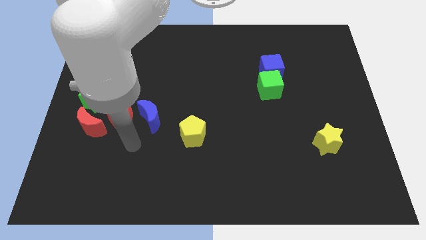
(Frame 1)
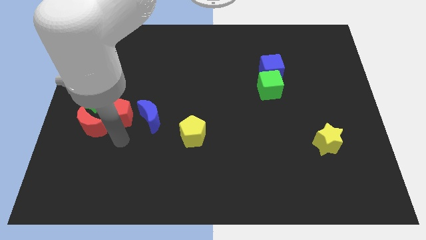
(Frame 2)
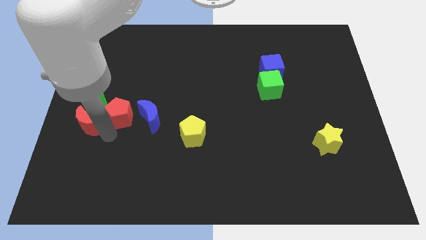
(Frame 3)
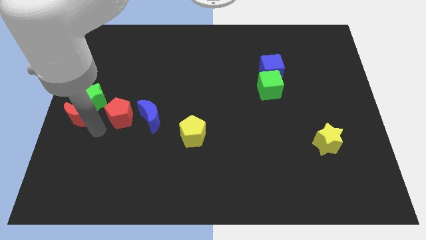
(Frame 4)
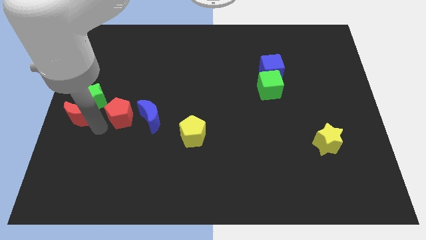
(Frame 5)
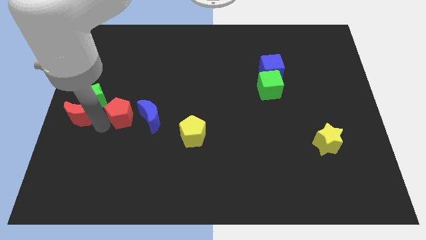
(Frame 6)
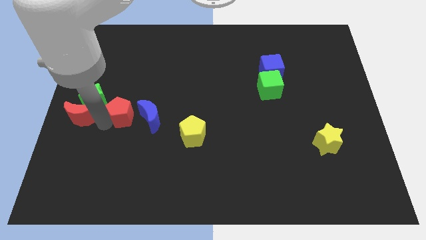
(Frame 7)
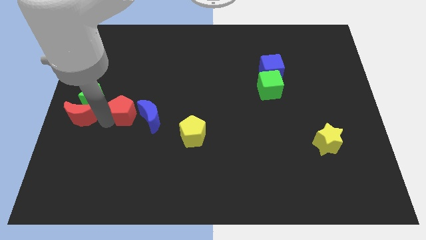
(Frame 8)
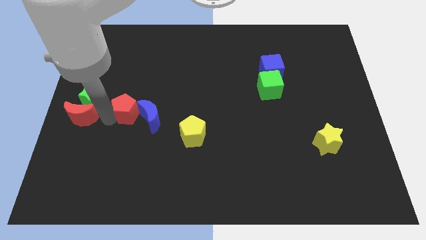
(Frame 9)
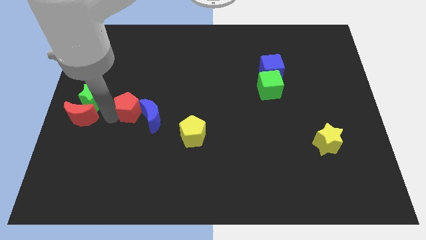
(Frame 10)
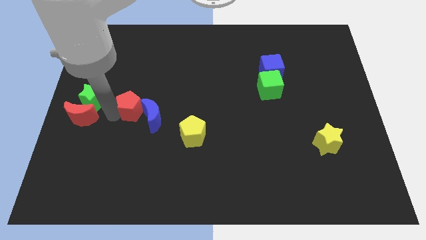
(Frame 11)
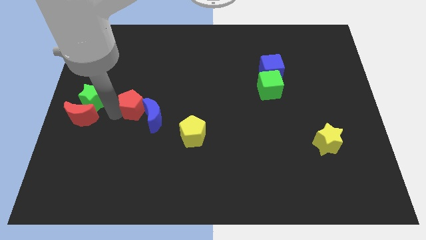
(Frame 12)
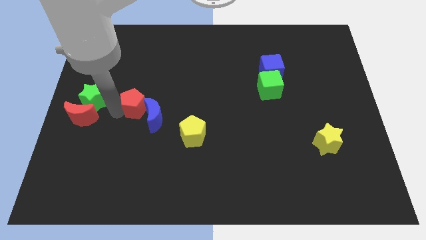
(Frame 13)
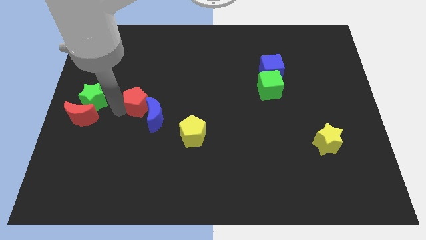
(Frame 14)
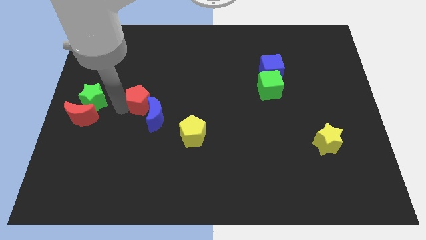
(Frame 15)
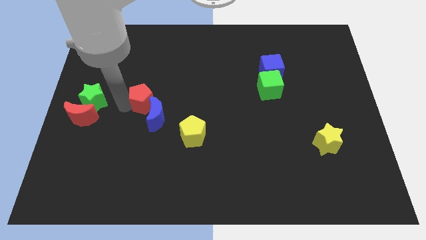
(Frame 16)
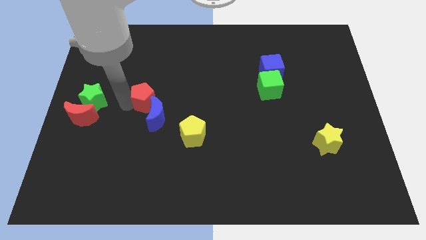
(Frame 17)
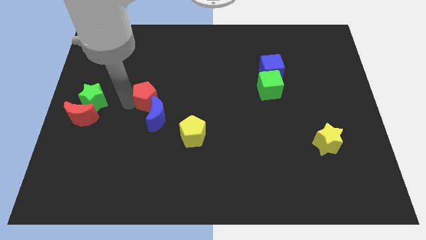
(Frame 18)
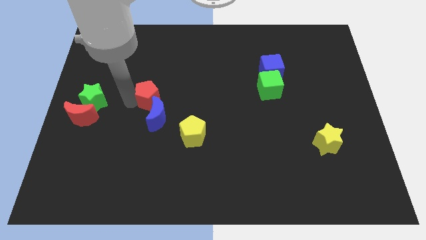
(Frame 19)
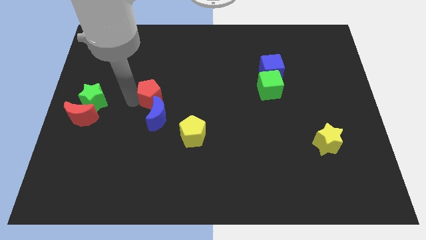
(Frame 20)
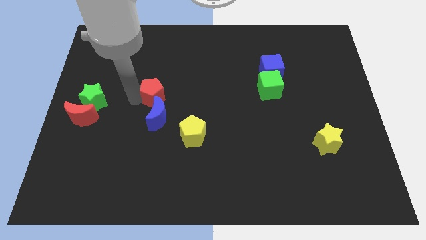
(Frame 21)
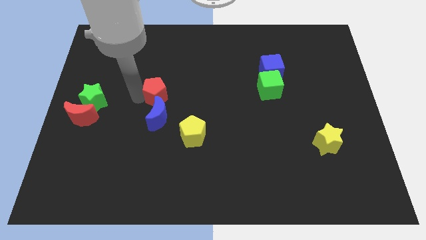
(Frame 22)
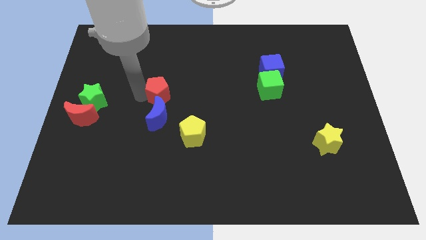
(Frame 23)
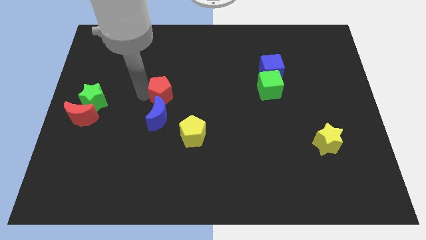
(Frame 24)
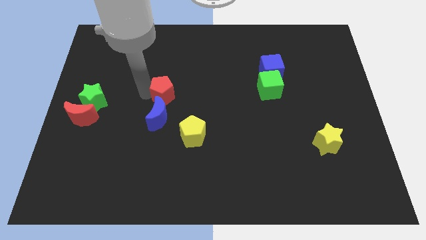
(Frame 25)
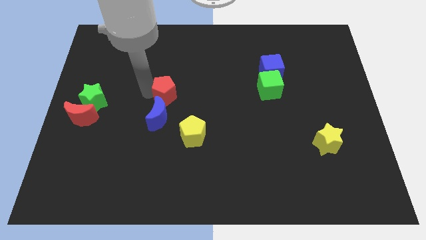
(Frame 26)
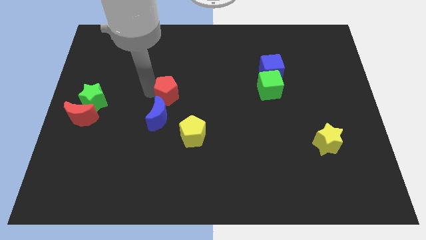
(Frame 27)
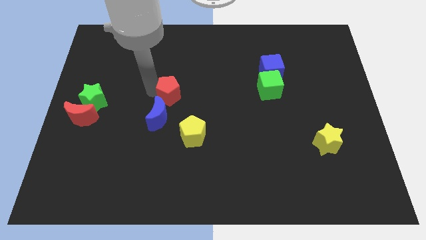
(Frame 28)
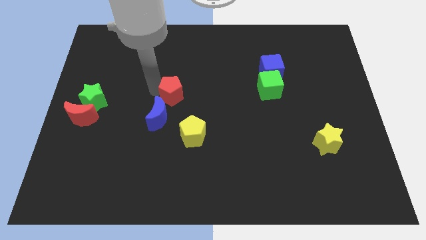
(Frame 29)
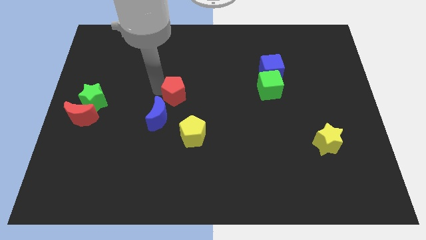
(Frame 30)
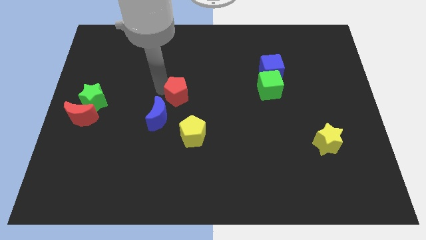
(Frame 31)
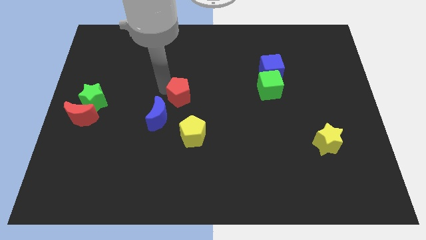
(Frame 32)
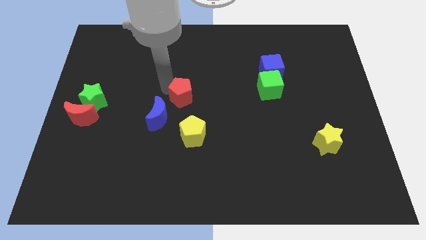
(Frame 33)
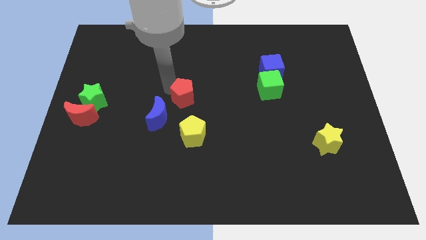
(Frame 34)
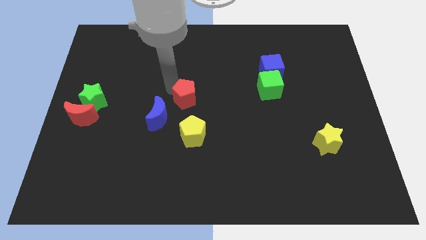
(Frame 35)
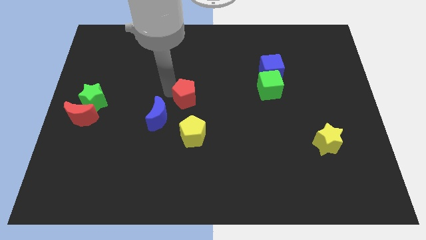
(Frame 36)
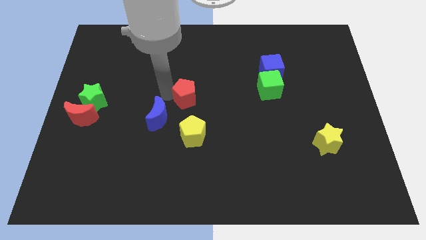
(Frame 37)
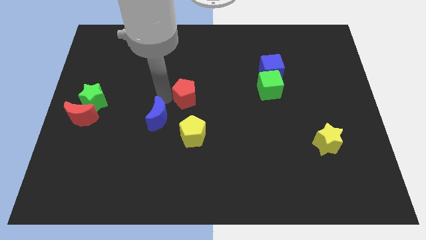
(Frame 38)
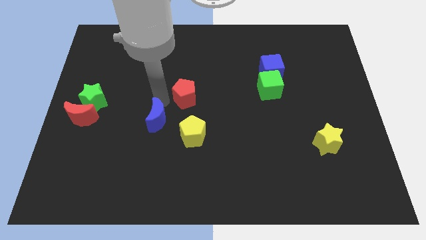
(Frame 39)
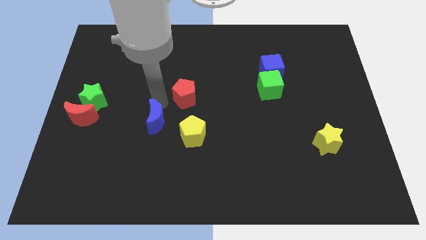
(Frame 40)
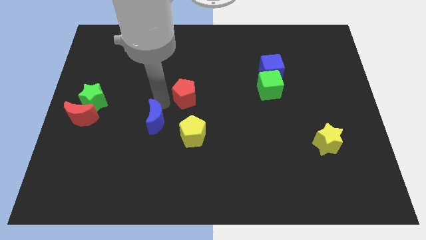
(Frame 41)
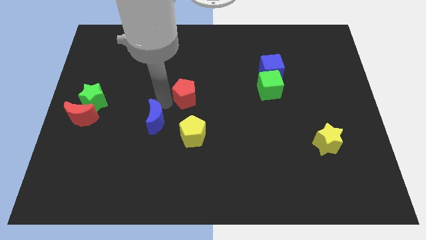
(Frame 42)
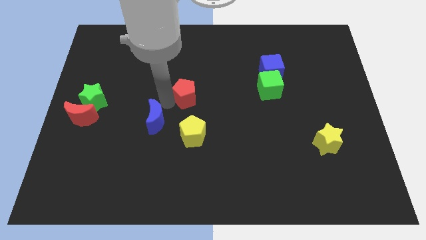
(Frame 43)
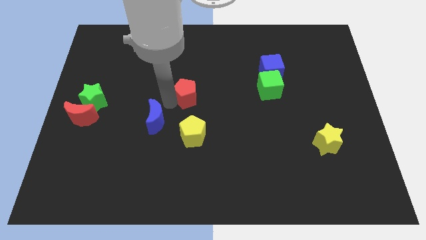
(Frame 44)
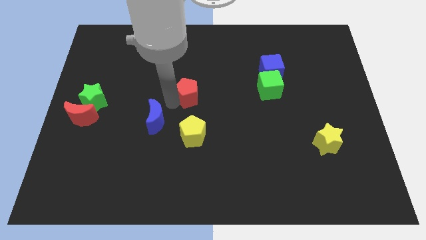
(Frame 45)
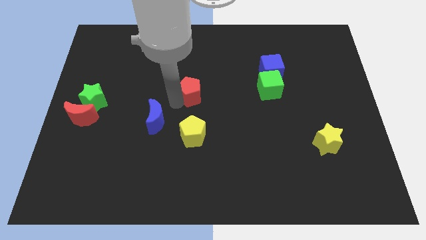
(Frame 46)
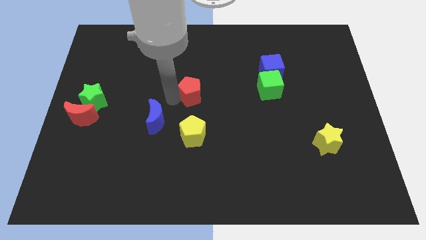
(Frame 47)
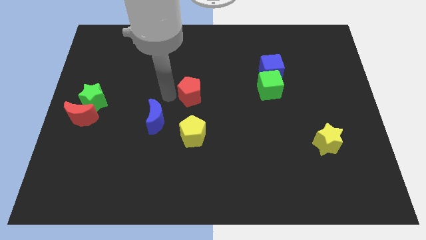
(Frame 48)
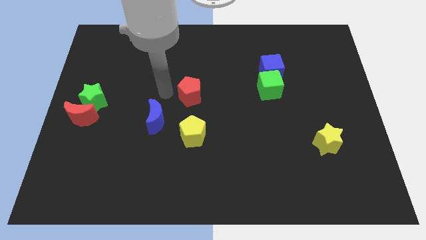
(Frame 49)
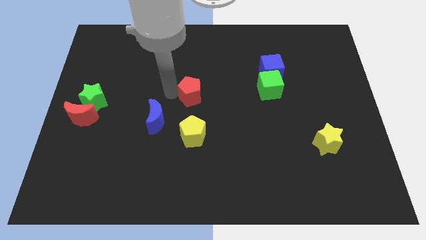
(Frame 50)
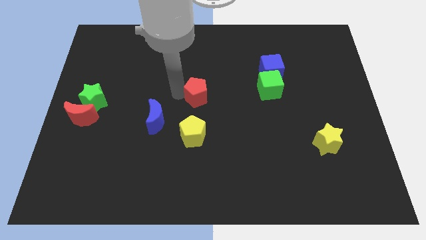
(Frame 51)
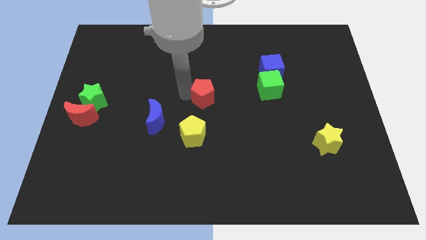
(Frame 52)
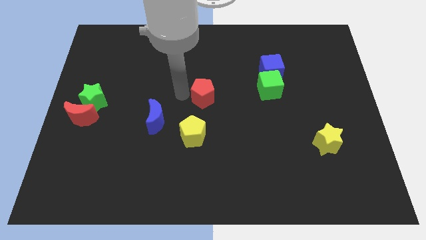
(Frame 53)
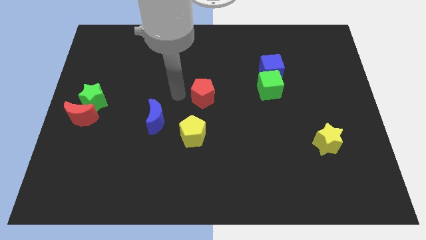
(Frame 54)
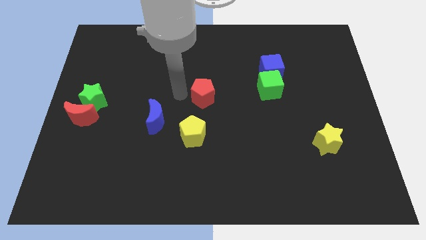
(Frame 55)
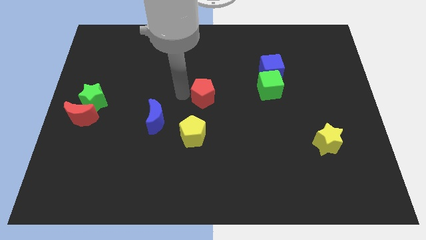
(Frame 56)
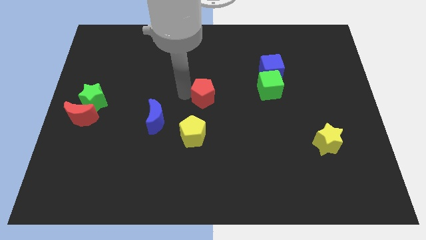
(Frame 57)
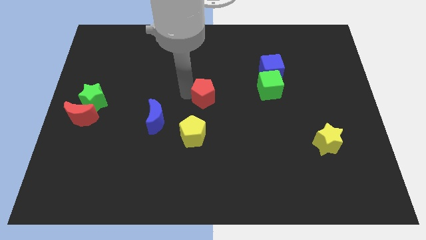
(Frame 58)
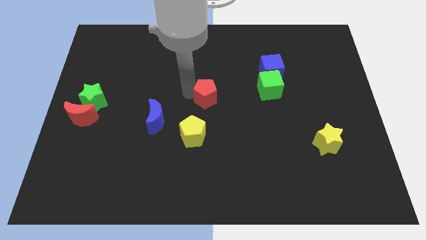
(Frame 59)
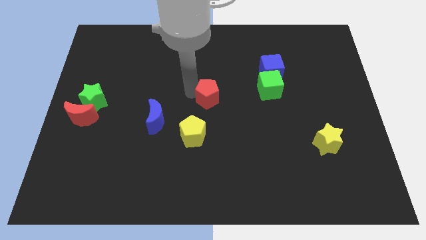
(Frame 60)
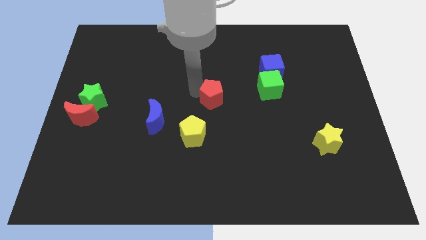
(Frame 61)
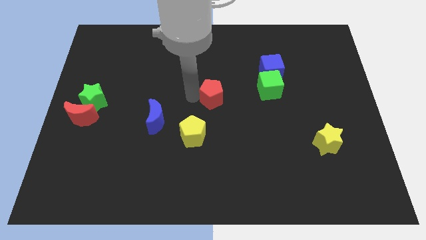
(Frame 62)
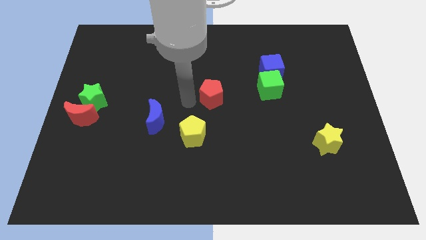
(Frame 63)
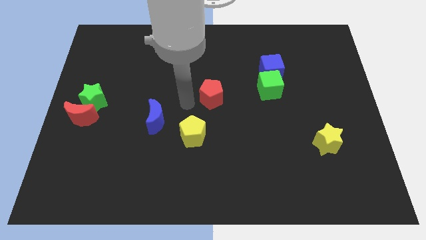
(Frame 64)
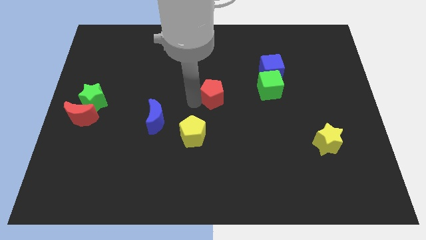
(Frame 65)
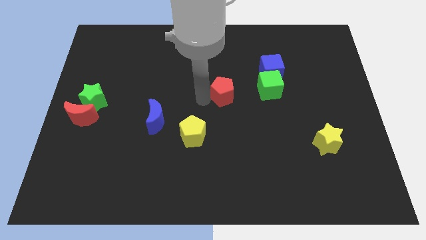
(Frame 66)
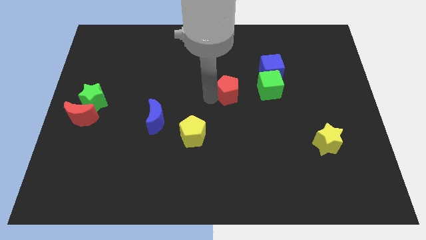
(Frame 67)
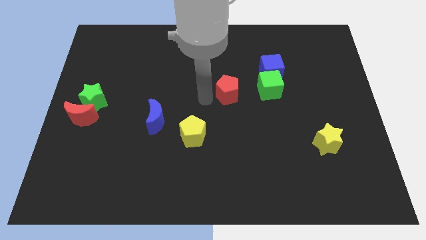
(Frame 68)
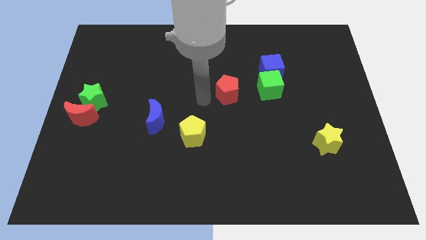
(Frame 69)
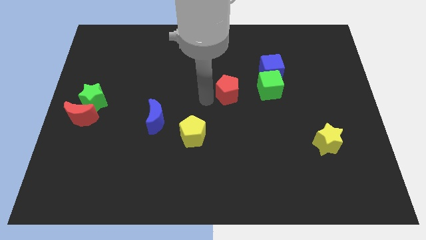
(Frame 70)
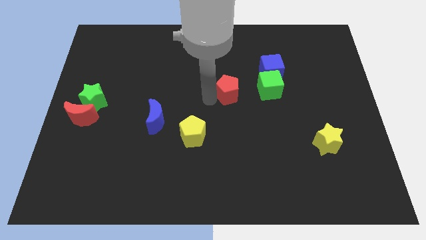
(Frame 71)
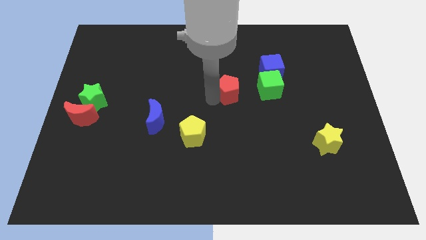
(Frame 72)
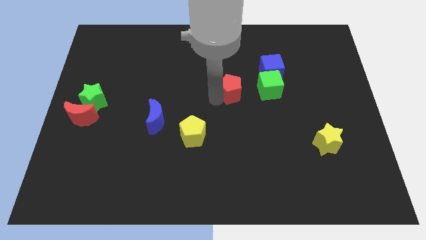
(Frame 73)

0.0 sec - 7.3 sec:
move the red pentagon to the bottom left side of the blue cube
